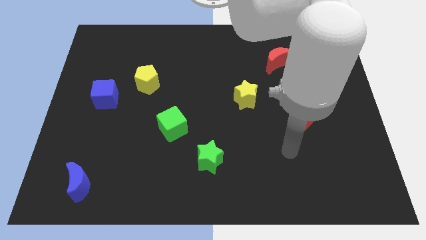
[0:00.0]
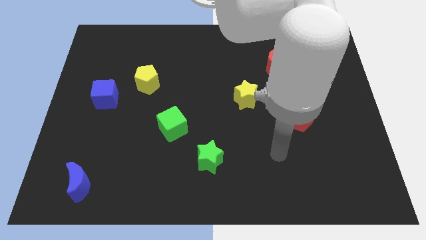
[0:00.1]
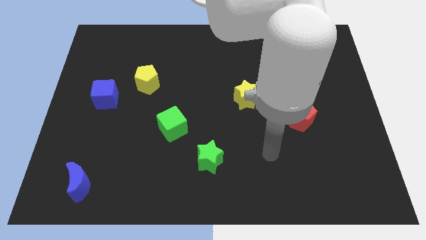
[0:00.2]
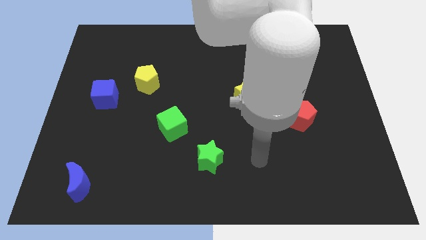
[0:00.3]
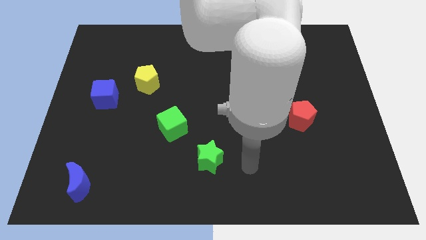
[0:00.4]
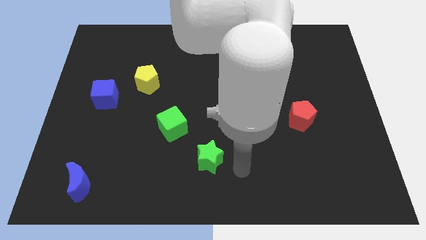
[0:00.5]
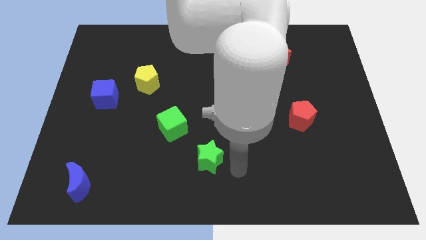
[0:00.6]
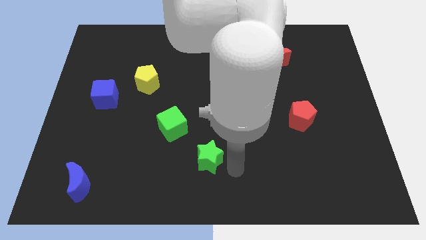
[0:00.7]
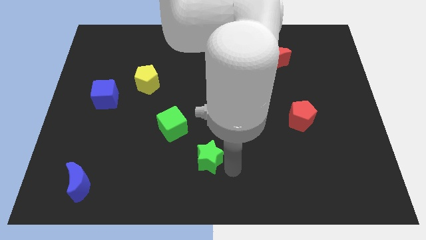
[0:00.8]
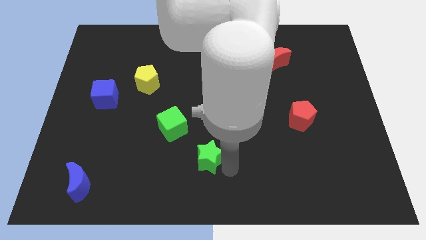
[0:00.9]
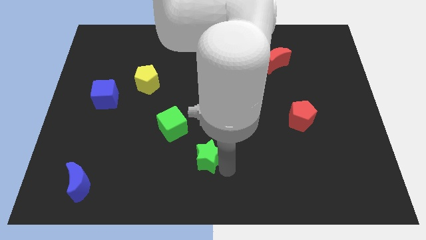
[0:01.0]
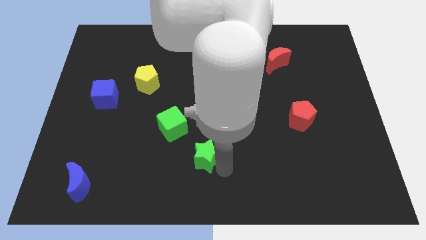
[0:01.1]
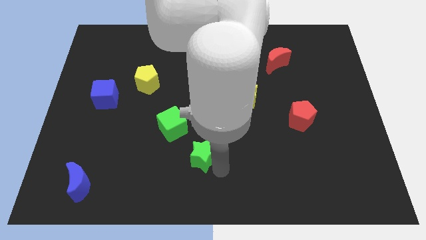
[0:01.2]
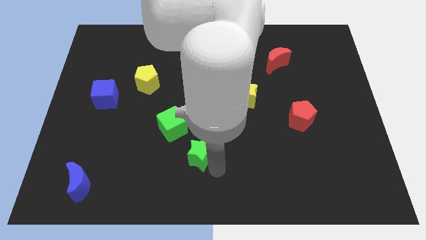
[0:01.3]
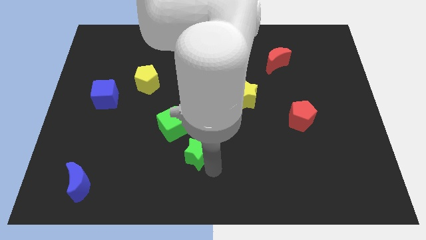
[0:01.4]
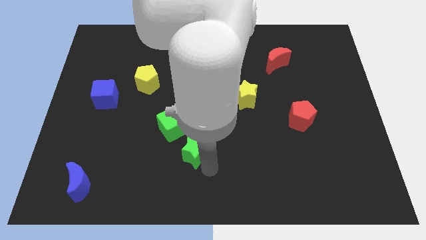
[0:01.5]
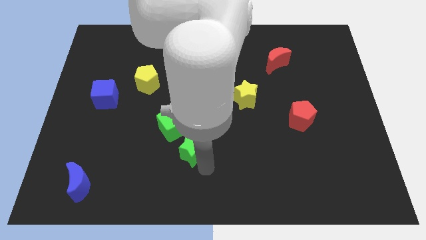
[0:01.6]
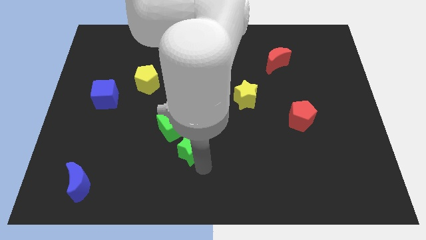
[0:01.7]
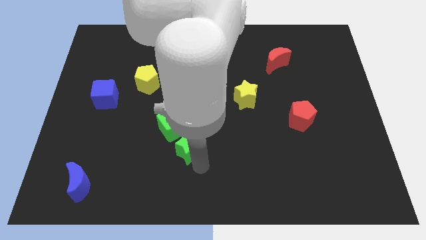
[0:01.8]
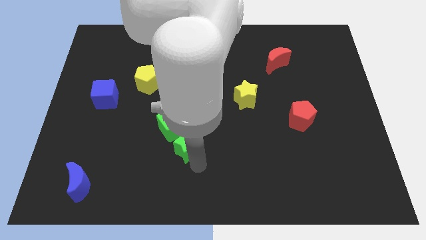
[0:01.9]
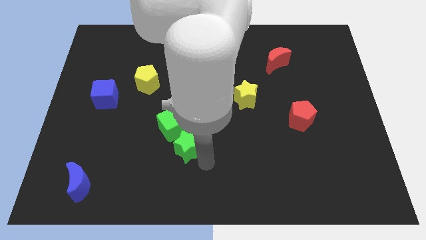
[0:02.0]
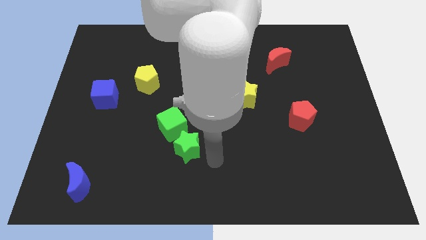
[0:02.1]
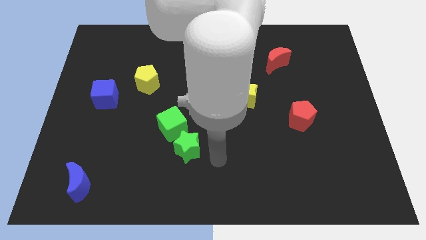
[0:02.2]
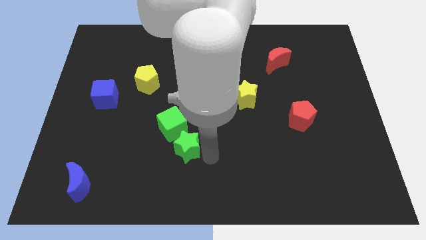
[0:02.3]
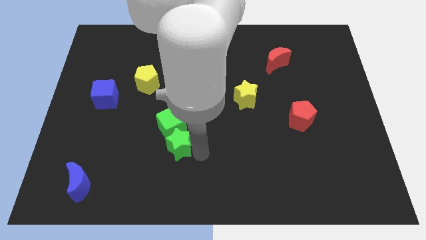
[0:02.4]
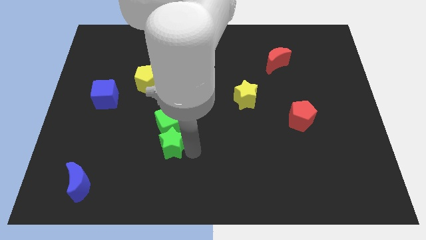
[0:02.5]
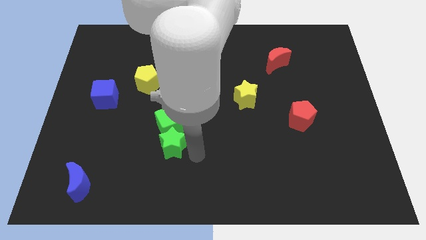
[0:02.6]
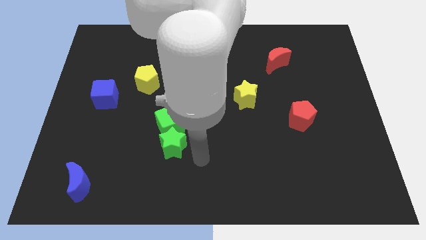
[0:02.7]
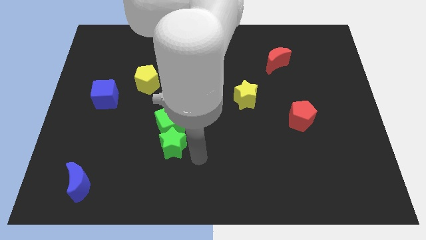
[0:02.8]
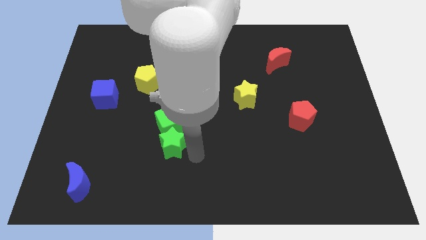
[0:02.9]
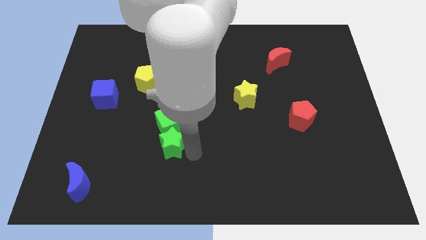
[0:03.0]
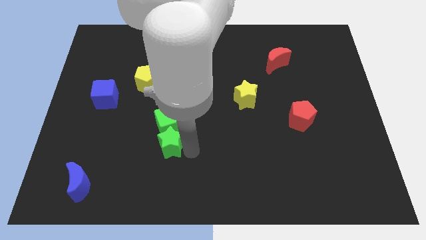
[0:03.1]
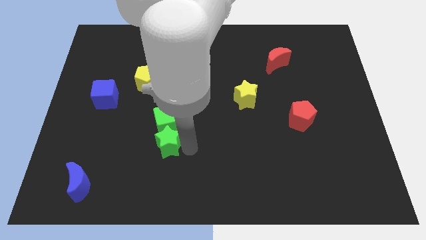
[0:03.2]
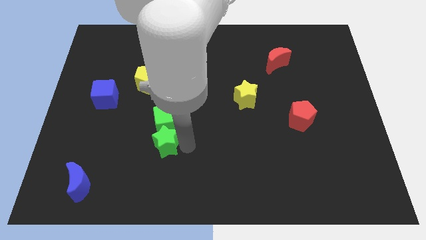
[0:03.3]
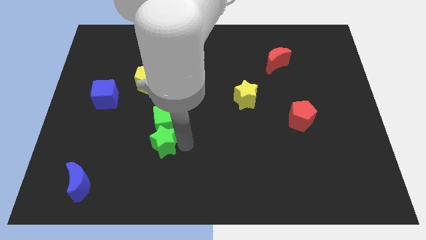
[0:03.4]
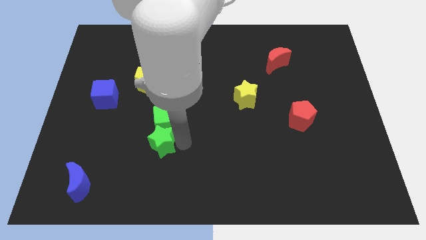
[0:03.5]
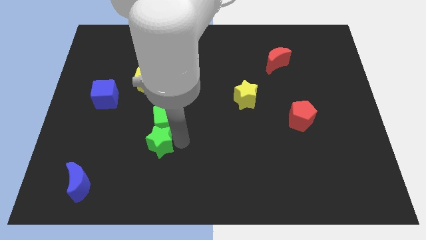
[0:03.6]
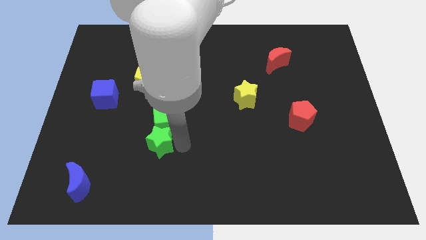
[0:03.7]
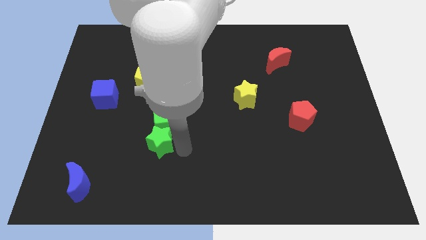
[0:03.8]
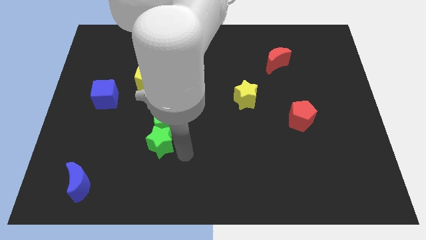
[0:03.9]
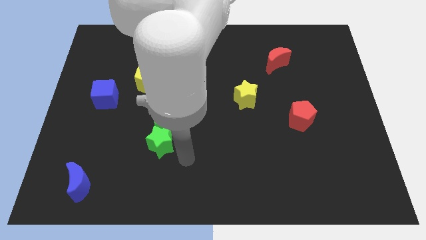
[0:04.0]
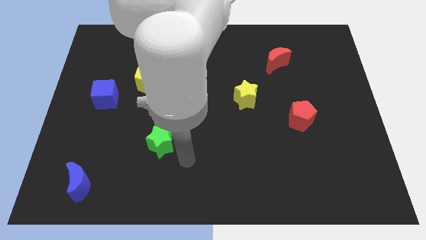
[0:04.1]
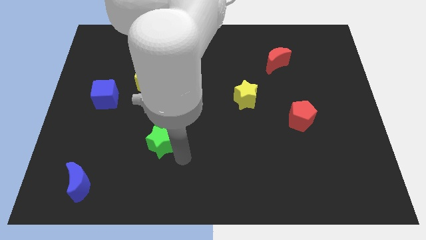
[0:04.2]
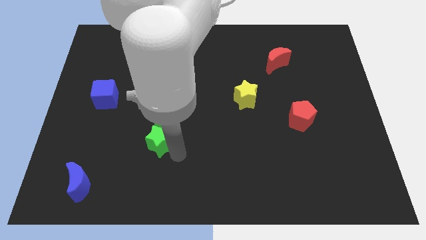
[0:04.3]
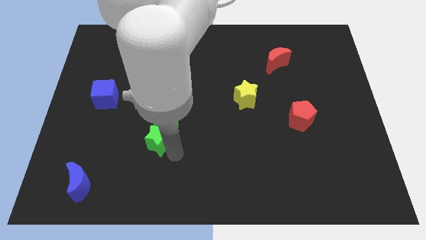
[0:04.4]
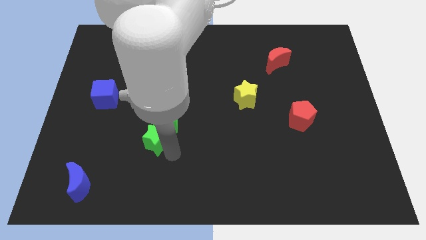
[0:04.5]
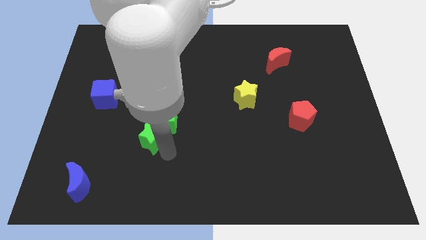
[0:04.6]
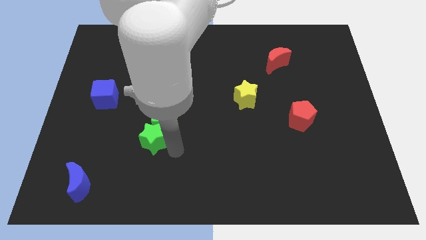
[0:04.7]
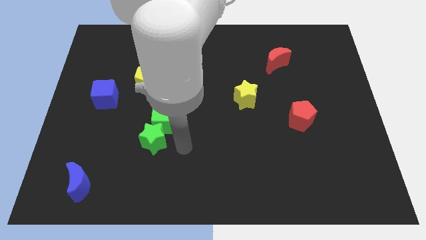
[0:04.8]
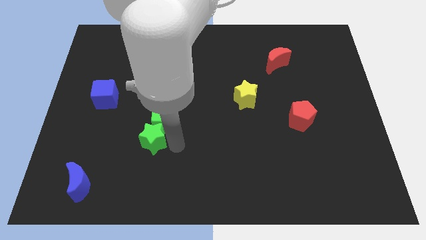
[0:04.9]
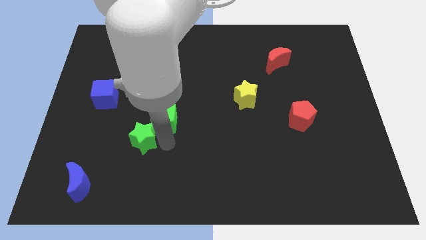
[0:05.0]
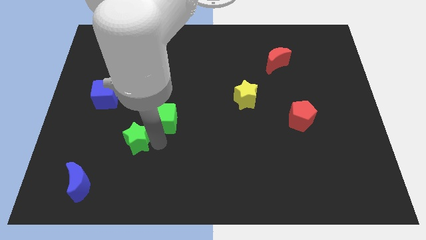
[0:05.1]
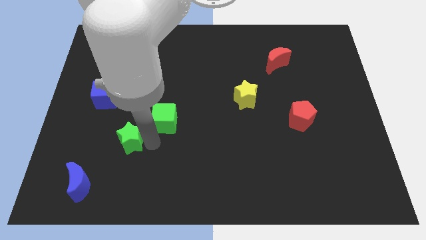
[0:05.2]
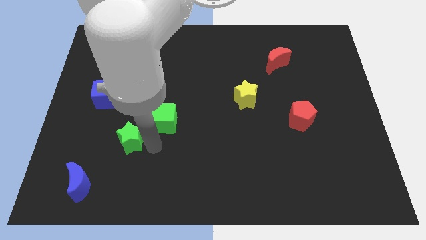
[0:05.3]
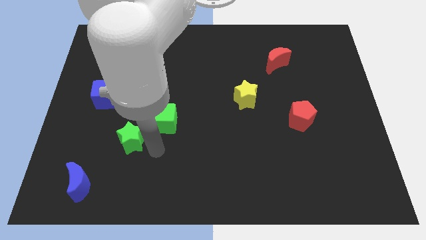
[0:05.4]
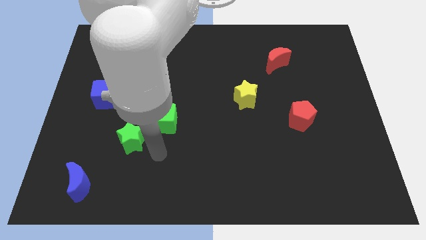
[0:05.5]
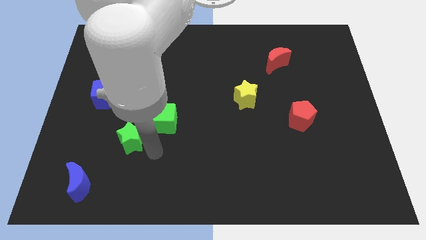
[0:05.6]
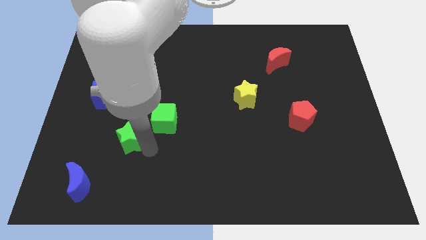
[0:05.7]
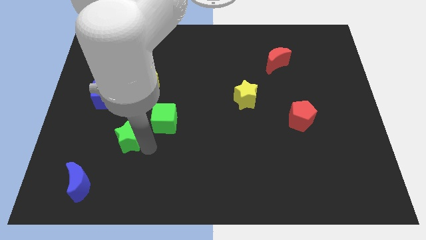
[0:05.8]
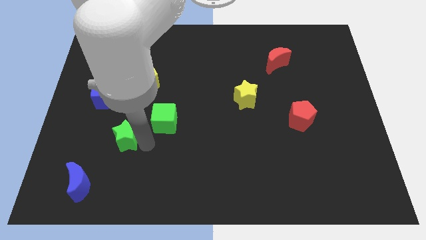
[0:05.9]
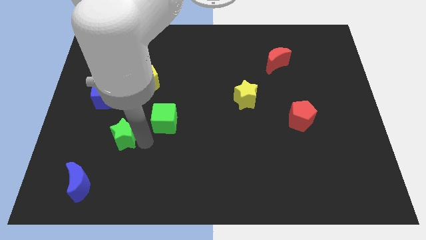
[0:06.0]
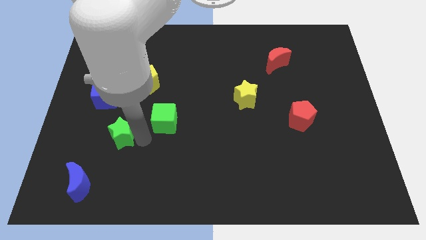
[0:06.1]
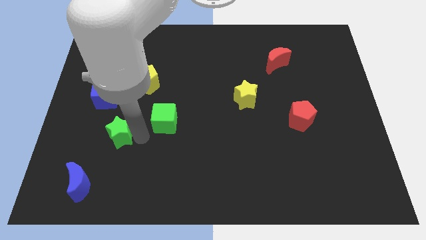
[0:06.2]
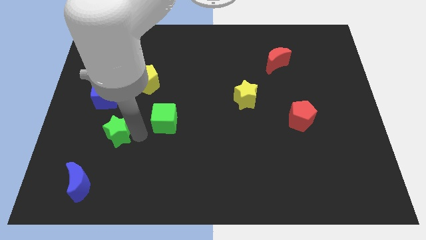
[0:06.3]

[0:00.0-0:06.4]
slide the green star below the blue cube

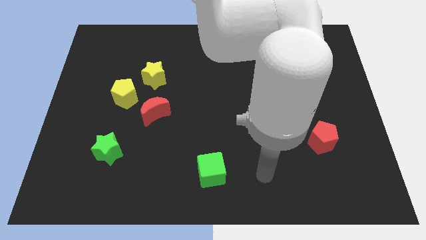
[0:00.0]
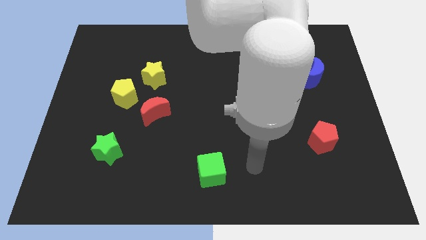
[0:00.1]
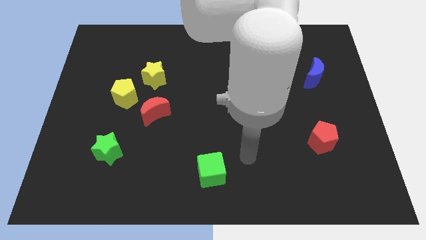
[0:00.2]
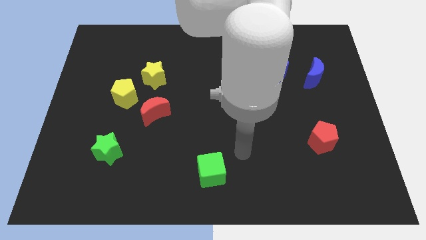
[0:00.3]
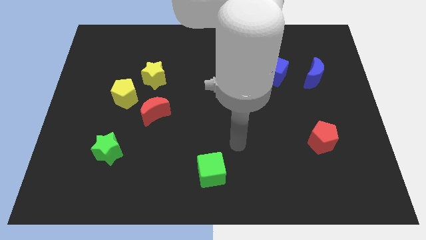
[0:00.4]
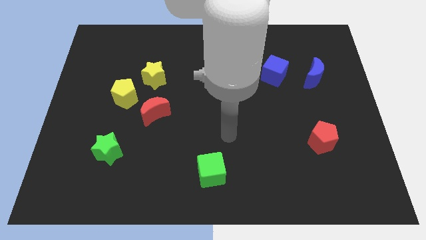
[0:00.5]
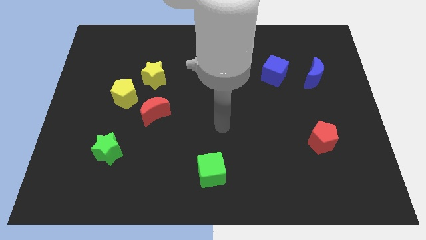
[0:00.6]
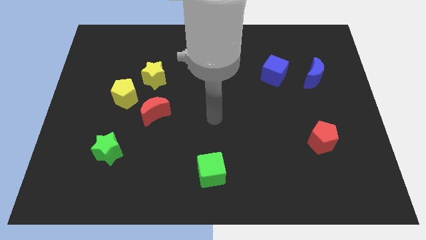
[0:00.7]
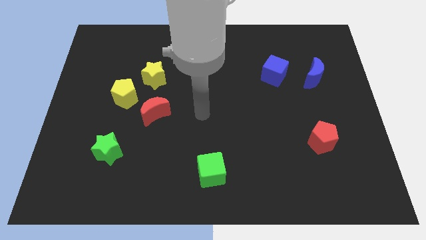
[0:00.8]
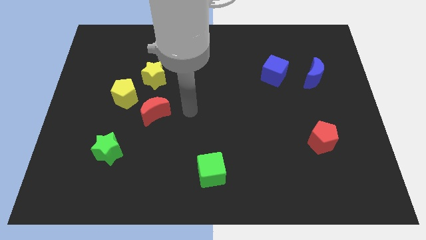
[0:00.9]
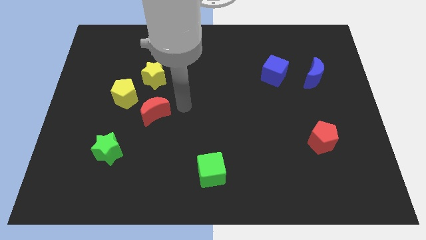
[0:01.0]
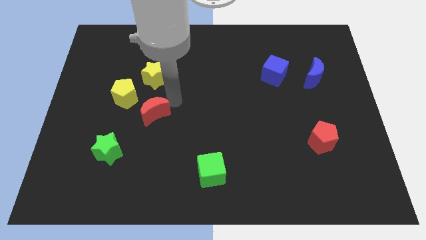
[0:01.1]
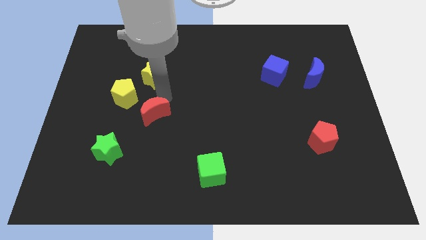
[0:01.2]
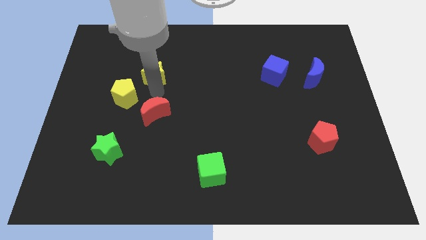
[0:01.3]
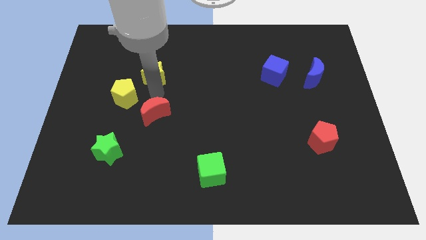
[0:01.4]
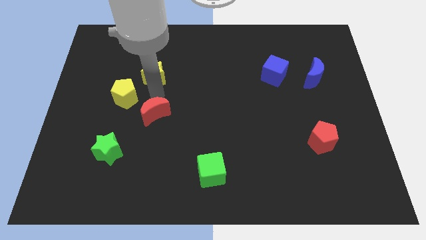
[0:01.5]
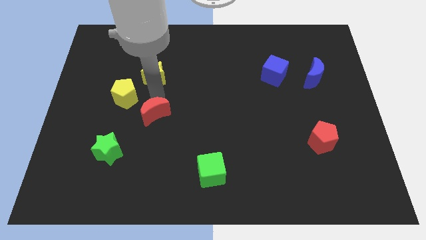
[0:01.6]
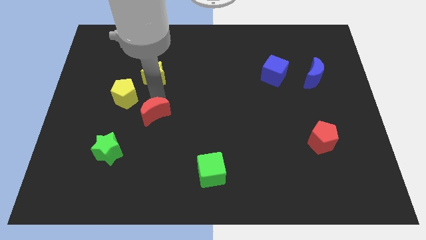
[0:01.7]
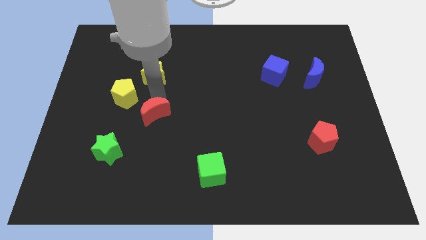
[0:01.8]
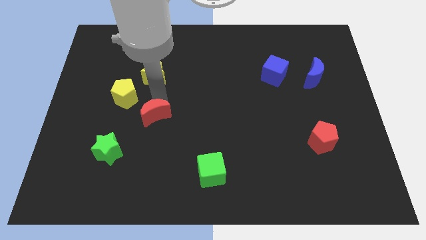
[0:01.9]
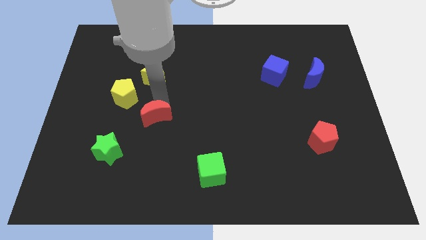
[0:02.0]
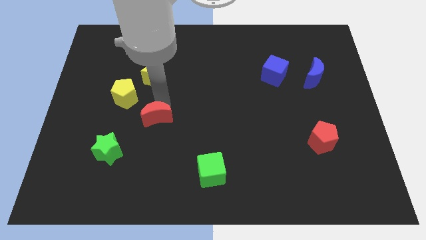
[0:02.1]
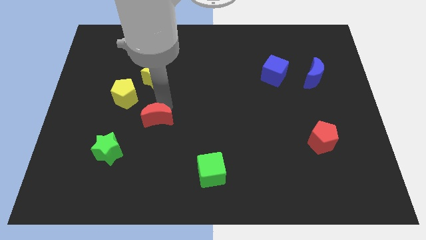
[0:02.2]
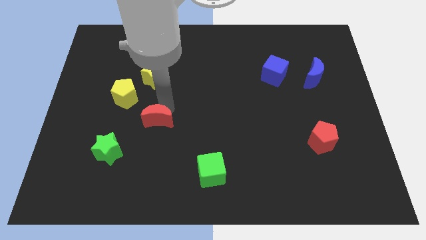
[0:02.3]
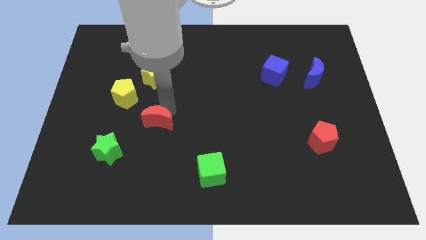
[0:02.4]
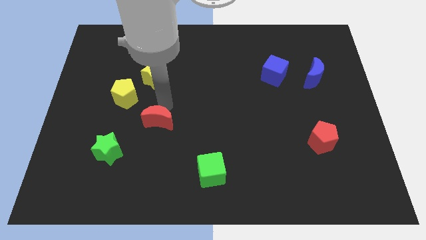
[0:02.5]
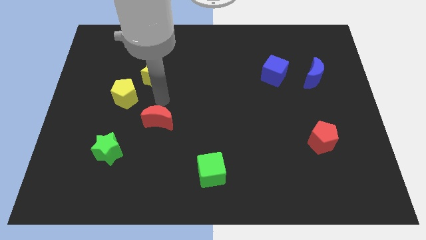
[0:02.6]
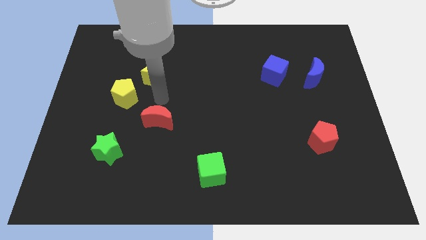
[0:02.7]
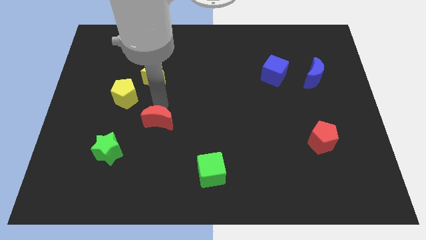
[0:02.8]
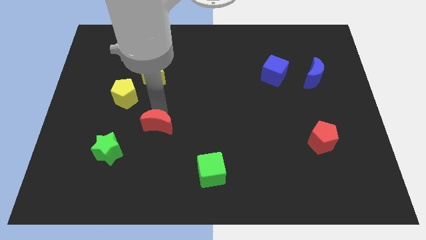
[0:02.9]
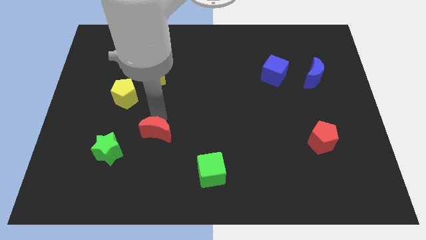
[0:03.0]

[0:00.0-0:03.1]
slide the red moon to the right of the green star
